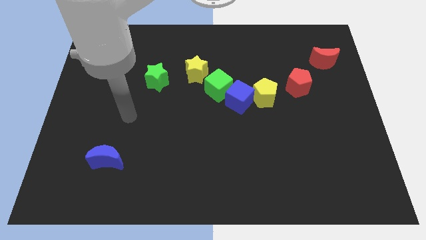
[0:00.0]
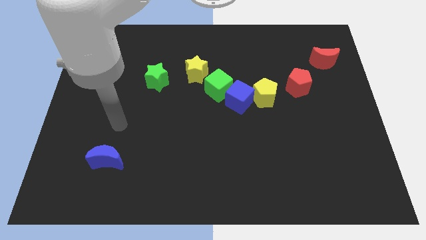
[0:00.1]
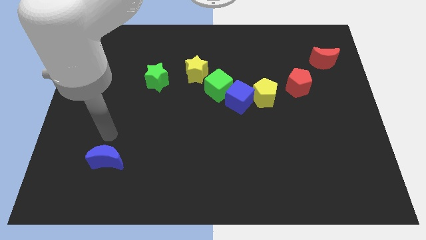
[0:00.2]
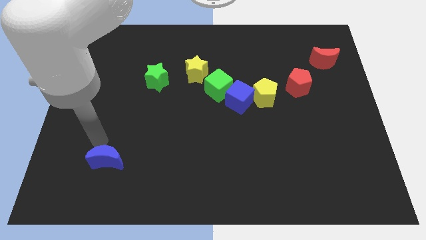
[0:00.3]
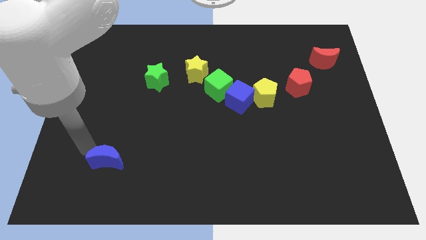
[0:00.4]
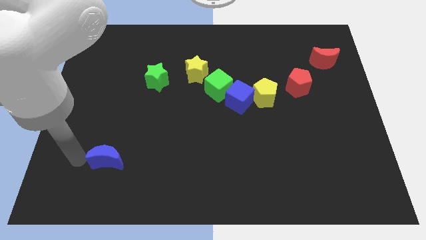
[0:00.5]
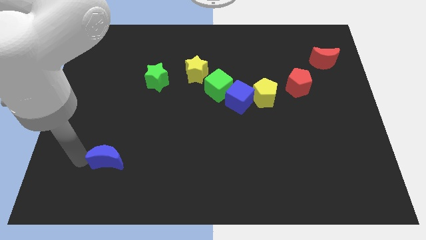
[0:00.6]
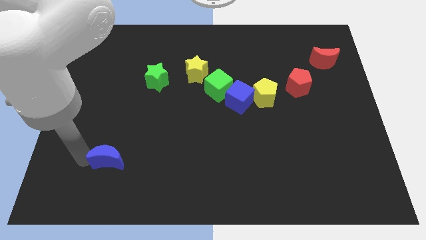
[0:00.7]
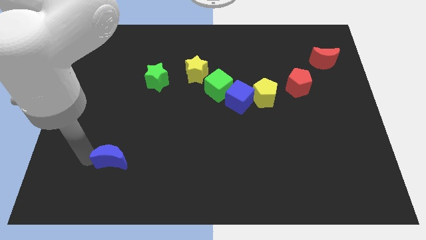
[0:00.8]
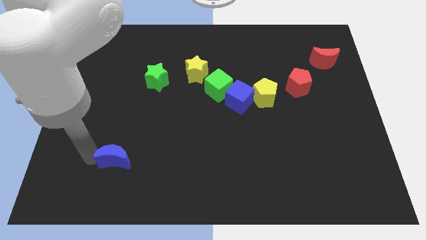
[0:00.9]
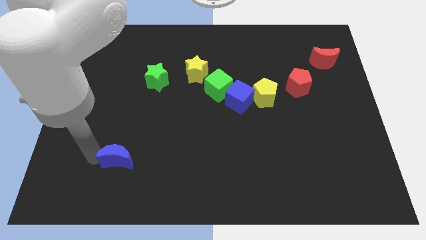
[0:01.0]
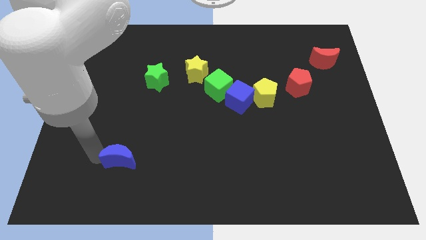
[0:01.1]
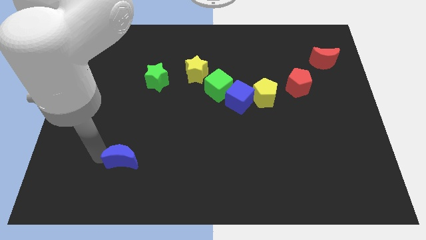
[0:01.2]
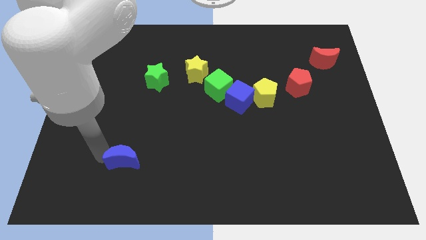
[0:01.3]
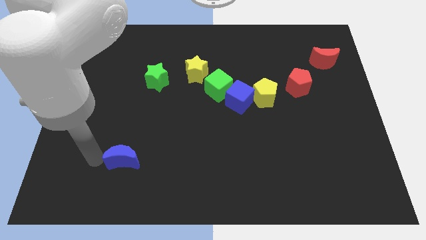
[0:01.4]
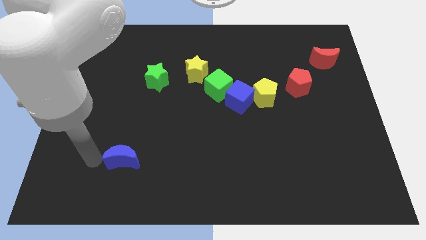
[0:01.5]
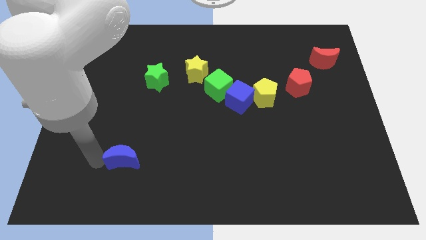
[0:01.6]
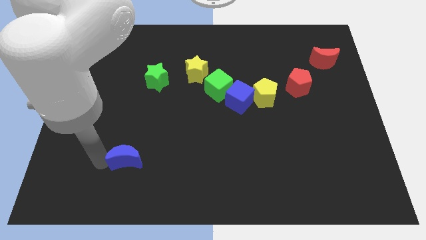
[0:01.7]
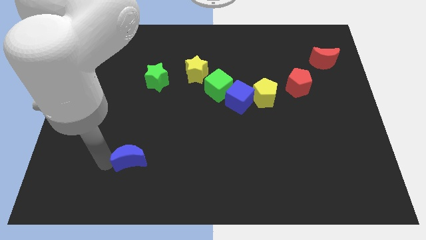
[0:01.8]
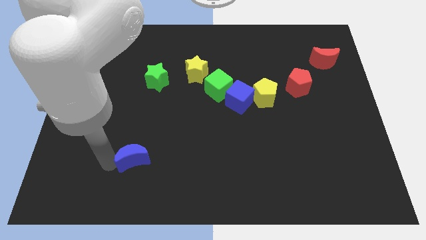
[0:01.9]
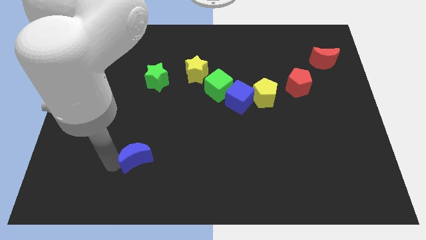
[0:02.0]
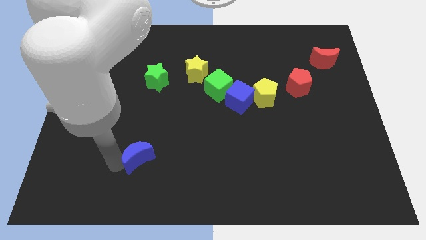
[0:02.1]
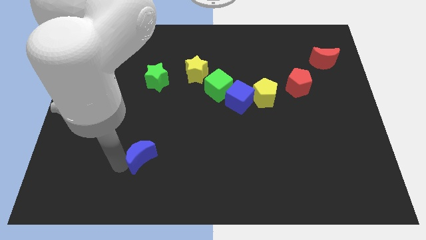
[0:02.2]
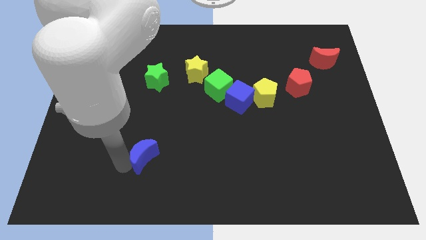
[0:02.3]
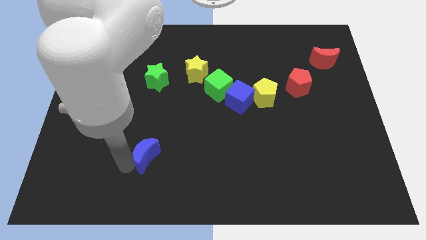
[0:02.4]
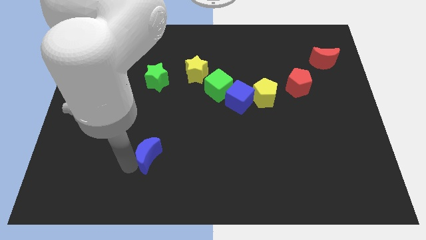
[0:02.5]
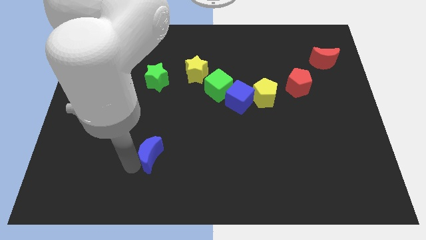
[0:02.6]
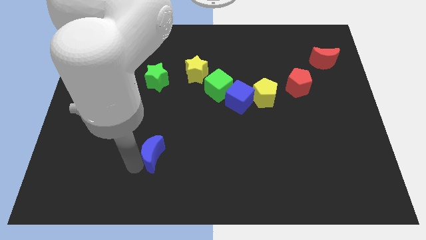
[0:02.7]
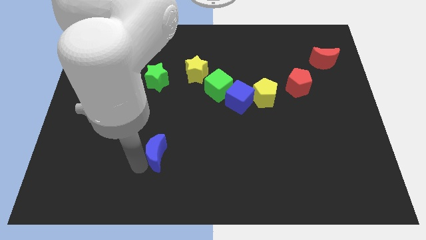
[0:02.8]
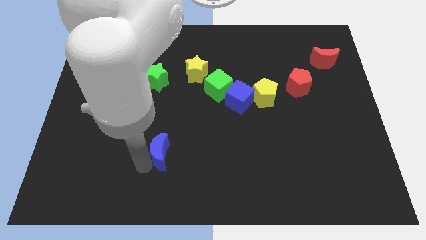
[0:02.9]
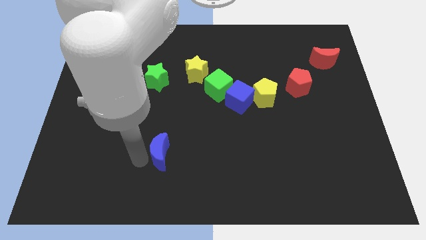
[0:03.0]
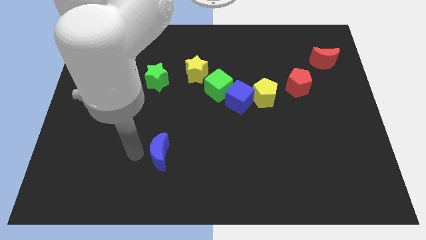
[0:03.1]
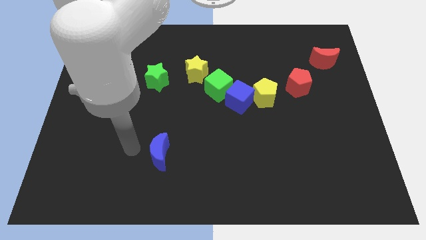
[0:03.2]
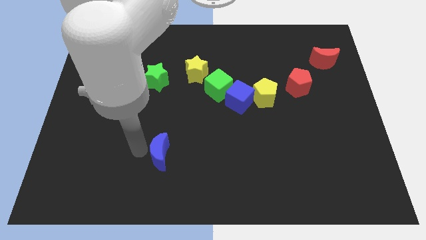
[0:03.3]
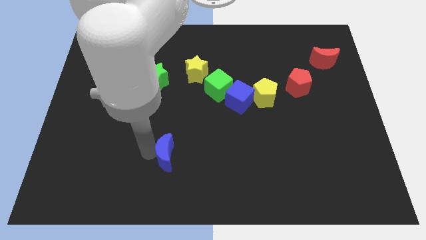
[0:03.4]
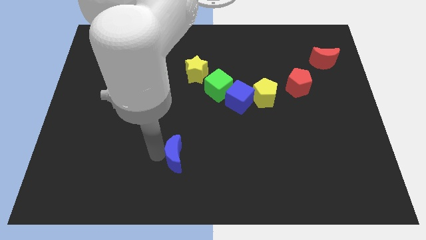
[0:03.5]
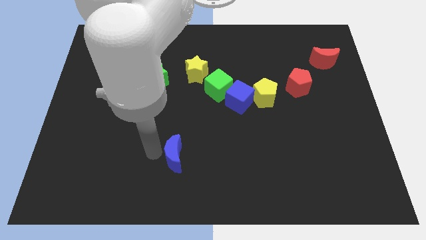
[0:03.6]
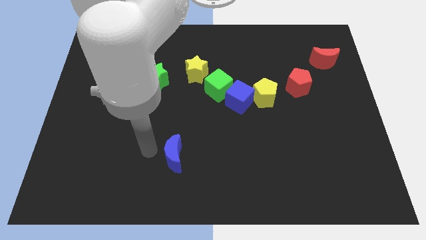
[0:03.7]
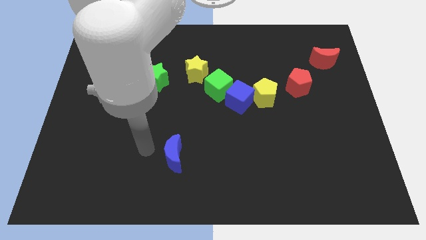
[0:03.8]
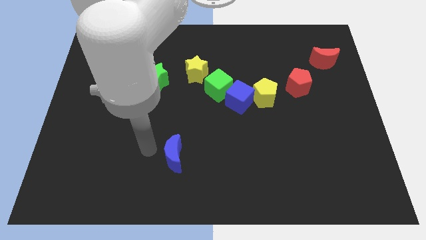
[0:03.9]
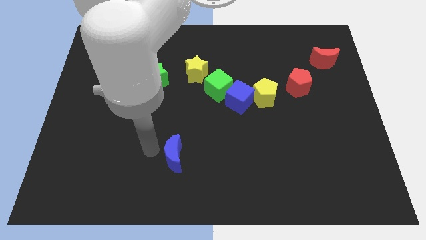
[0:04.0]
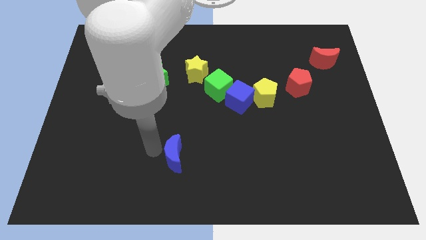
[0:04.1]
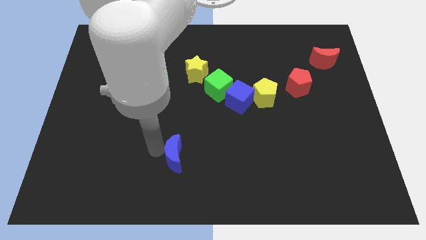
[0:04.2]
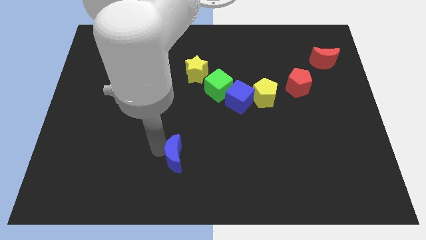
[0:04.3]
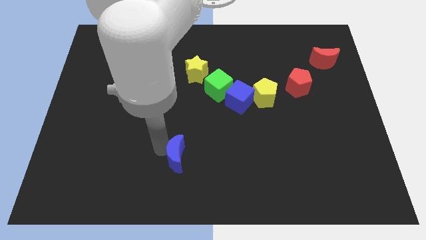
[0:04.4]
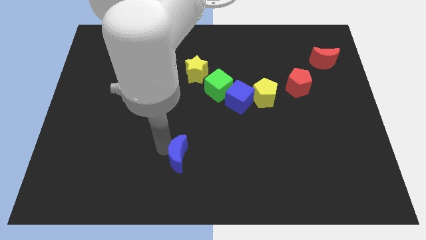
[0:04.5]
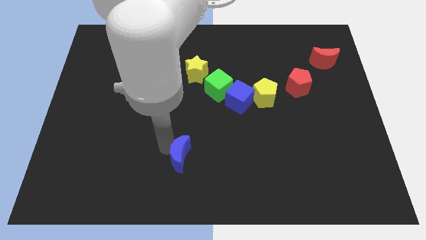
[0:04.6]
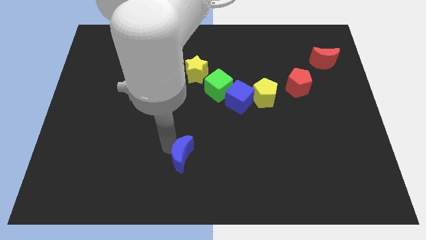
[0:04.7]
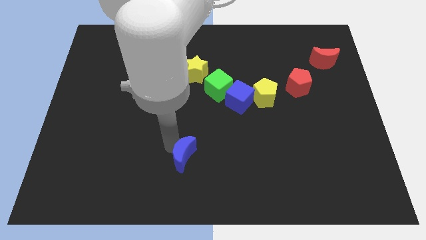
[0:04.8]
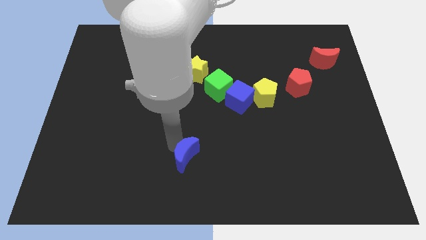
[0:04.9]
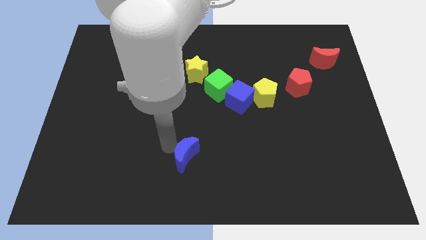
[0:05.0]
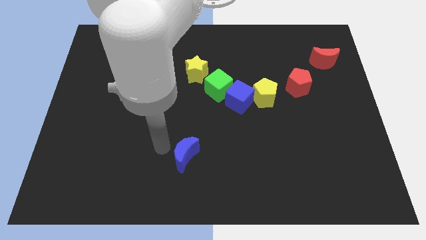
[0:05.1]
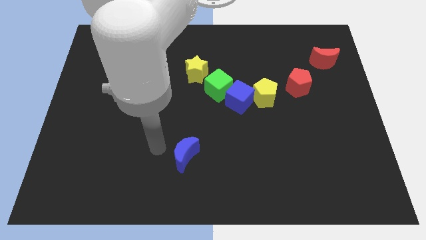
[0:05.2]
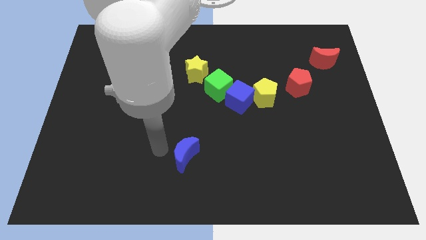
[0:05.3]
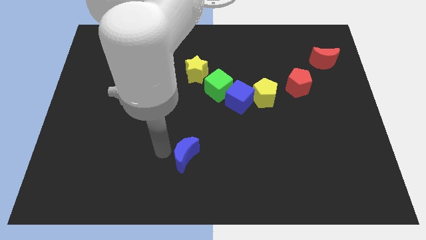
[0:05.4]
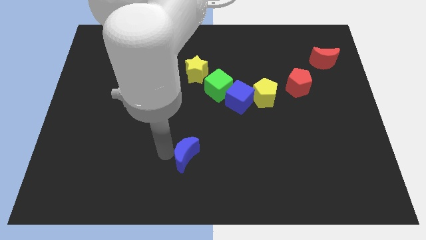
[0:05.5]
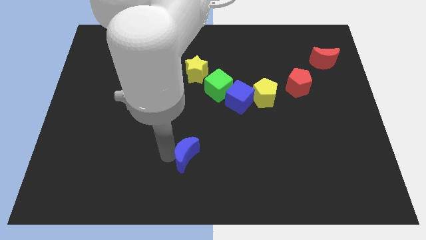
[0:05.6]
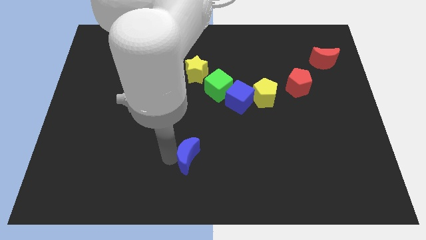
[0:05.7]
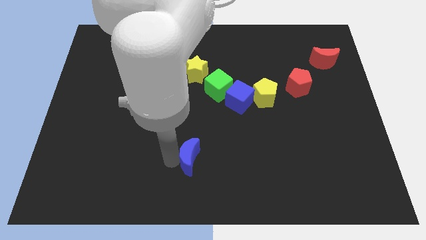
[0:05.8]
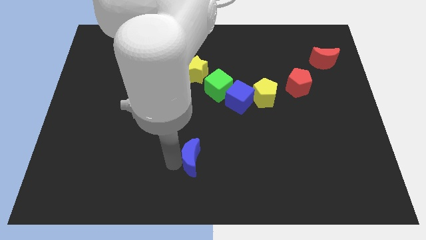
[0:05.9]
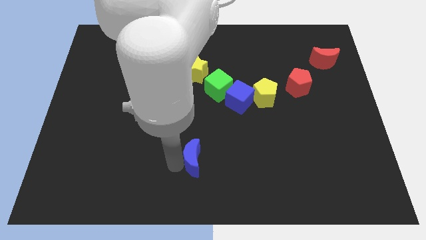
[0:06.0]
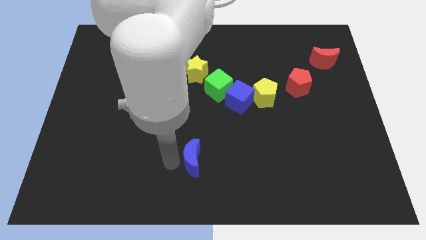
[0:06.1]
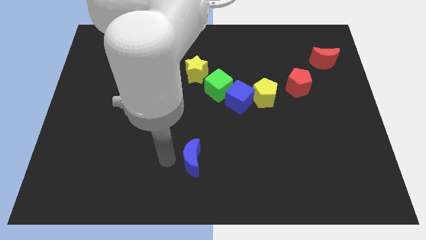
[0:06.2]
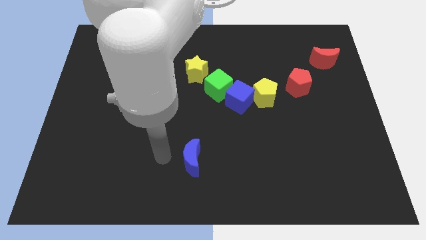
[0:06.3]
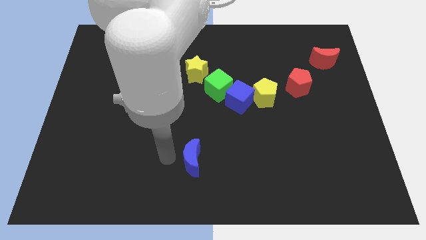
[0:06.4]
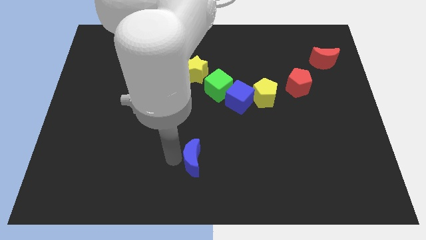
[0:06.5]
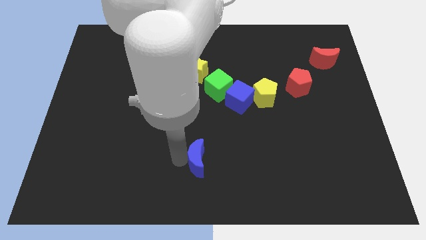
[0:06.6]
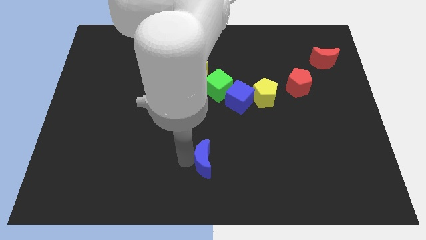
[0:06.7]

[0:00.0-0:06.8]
push the blue moon to the right

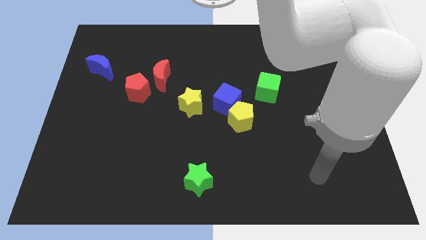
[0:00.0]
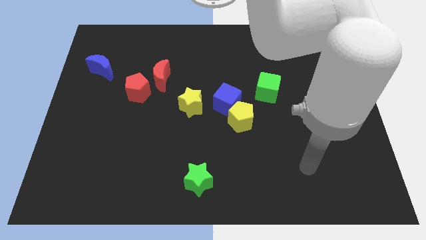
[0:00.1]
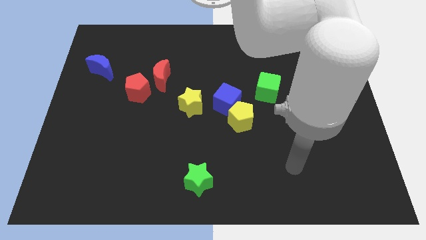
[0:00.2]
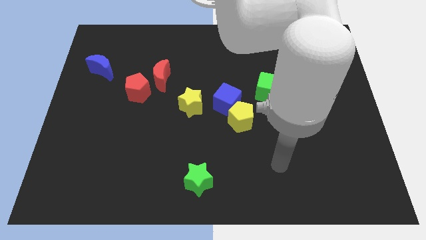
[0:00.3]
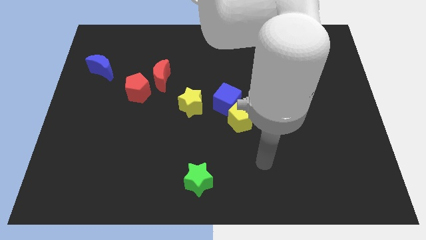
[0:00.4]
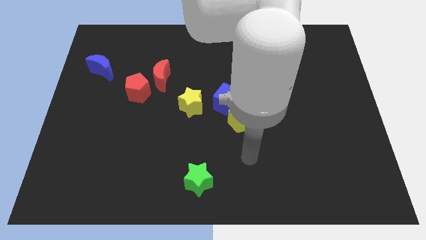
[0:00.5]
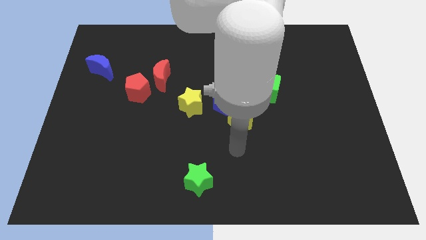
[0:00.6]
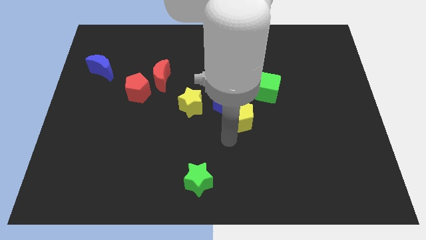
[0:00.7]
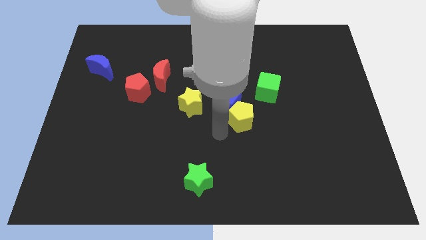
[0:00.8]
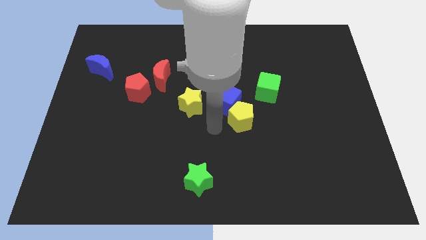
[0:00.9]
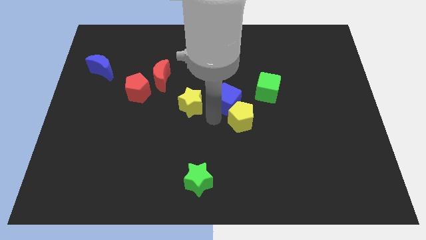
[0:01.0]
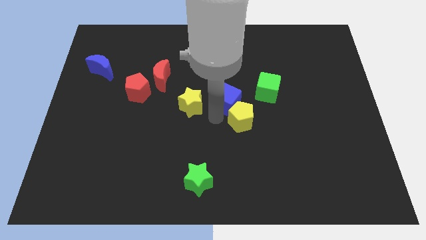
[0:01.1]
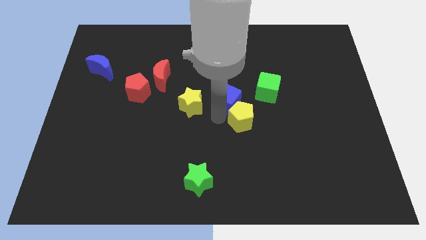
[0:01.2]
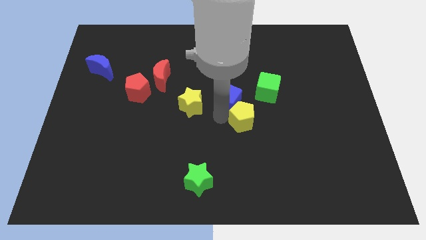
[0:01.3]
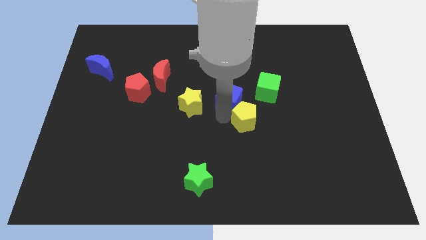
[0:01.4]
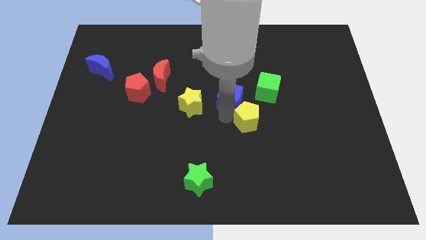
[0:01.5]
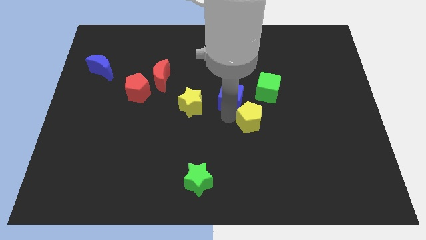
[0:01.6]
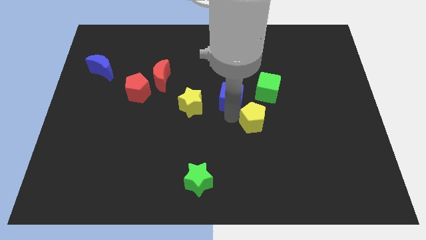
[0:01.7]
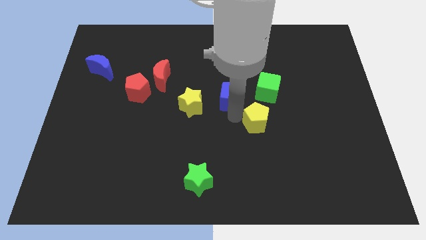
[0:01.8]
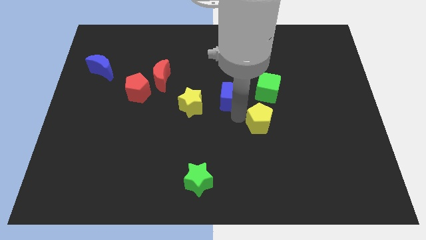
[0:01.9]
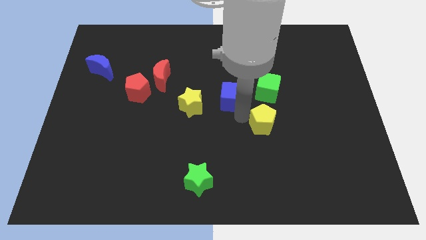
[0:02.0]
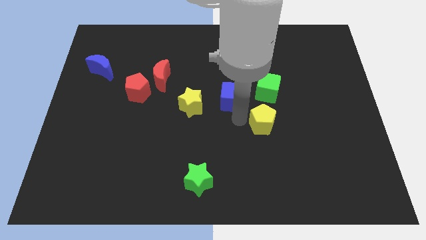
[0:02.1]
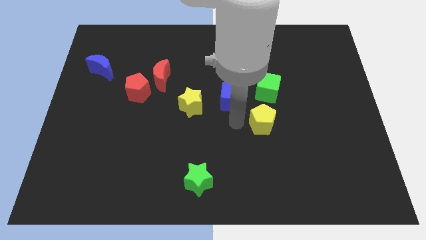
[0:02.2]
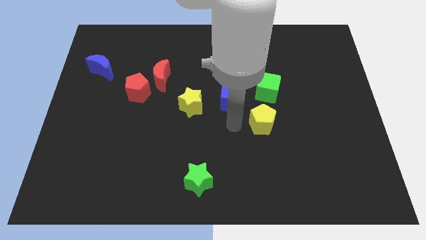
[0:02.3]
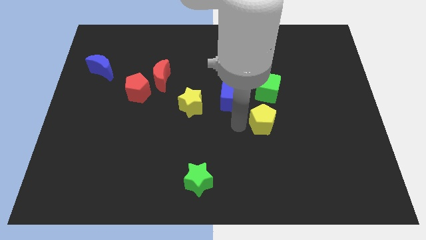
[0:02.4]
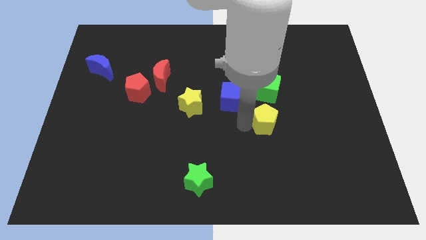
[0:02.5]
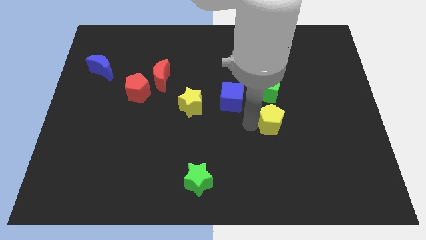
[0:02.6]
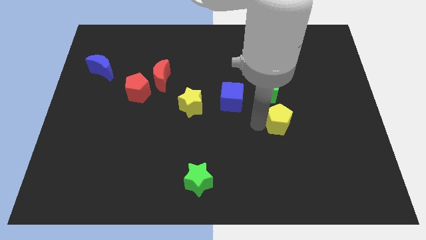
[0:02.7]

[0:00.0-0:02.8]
slide the yellow pentagon somewhat right
